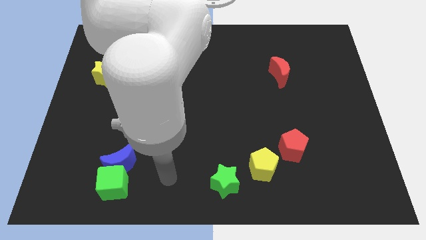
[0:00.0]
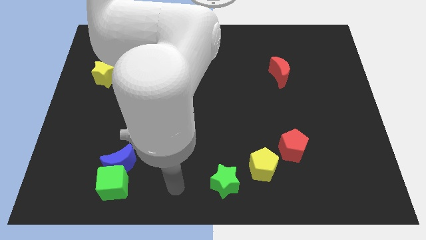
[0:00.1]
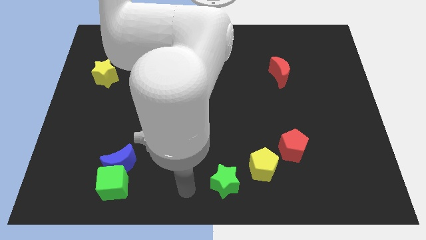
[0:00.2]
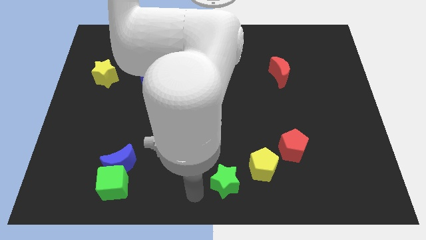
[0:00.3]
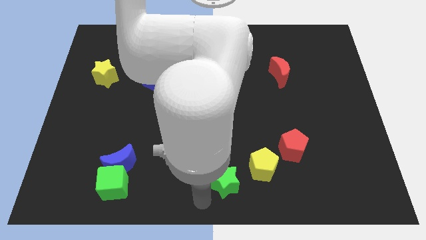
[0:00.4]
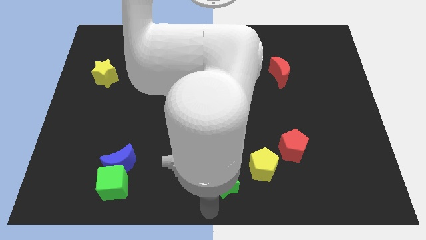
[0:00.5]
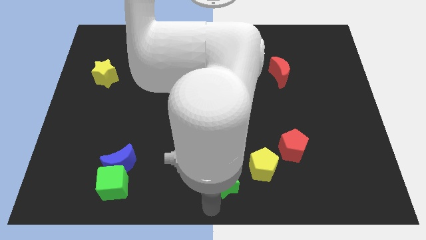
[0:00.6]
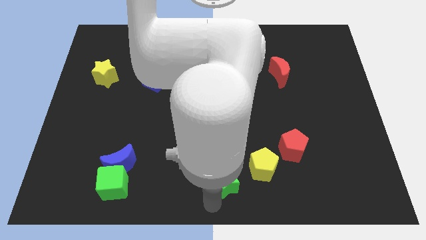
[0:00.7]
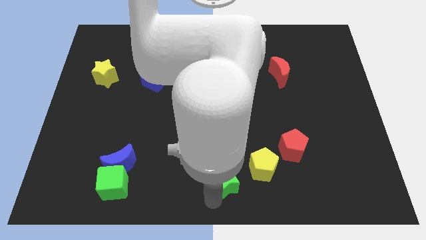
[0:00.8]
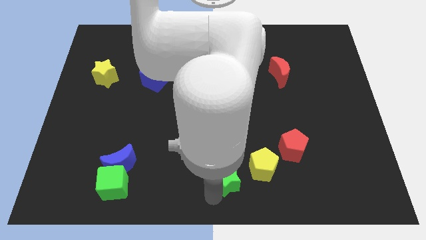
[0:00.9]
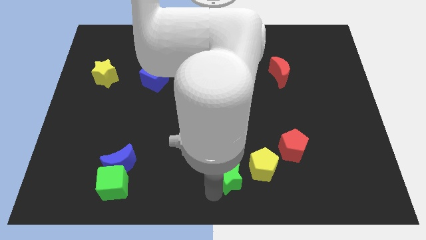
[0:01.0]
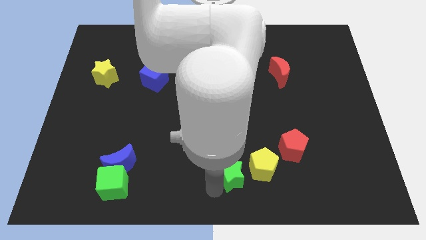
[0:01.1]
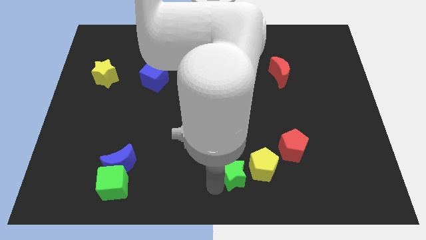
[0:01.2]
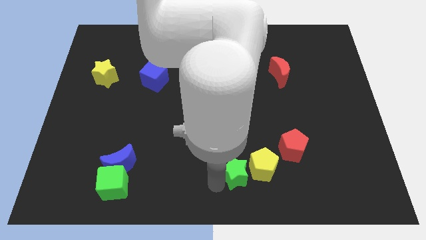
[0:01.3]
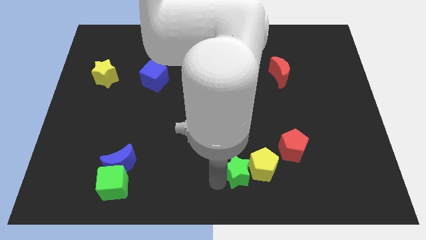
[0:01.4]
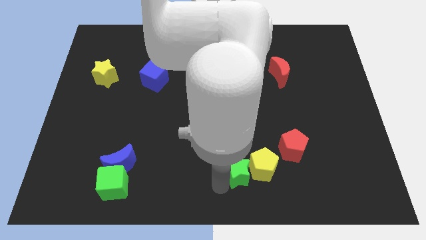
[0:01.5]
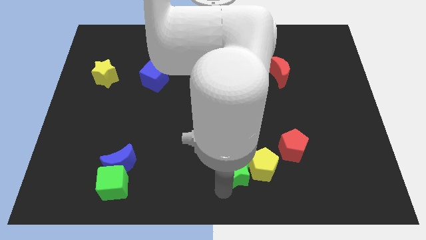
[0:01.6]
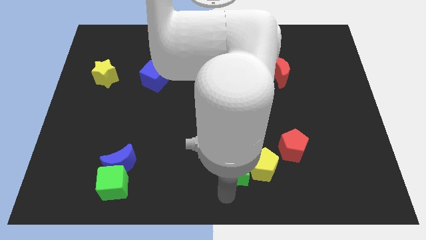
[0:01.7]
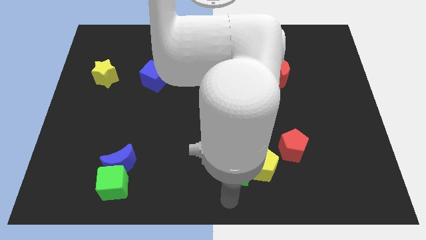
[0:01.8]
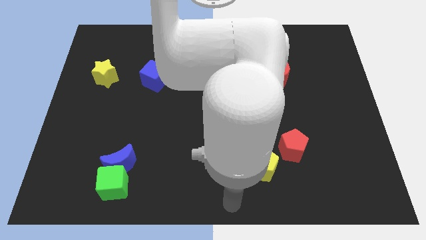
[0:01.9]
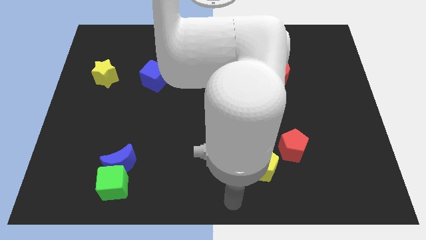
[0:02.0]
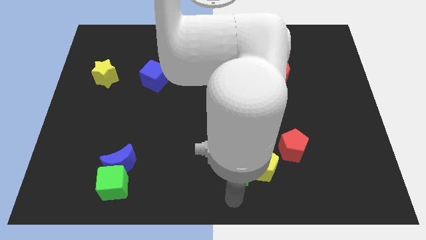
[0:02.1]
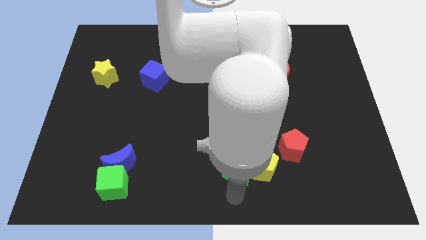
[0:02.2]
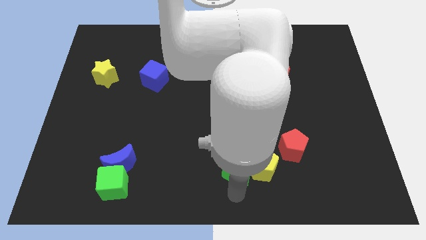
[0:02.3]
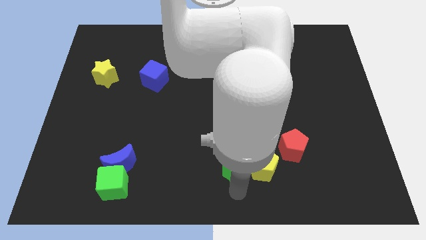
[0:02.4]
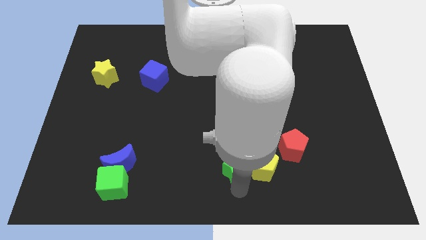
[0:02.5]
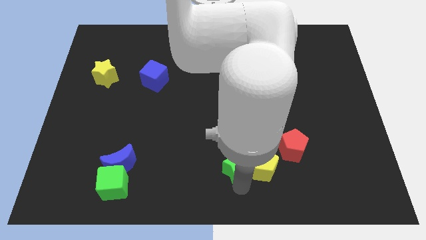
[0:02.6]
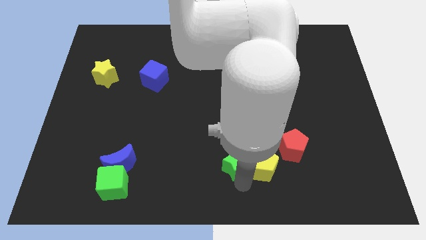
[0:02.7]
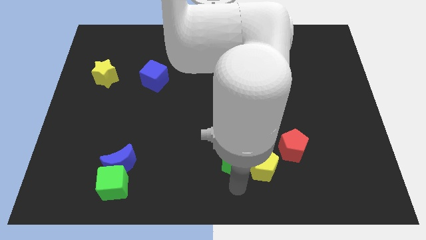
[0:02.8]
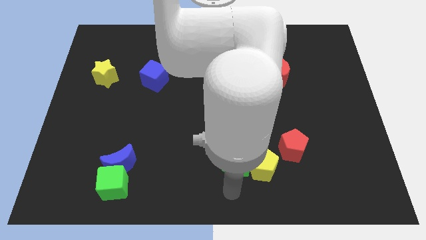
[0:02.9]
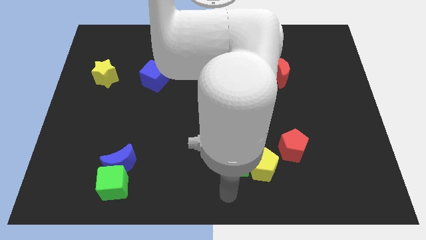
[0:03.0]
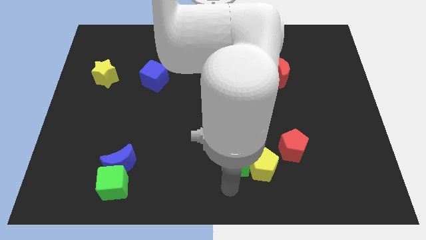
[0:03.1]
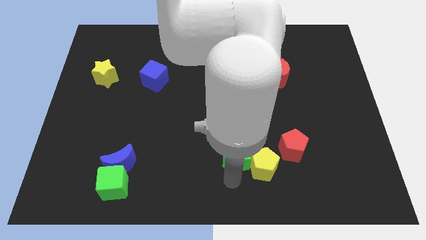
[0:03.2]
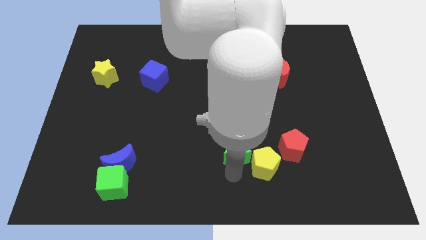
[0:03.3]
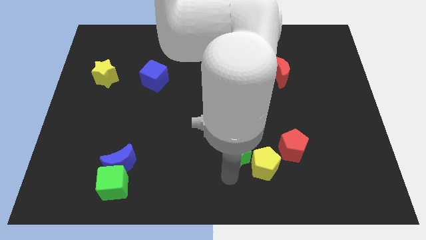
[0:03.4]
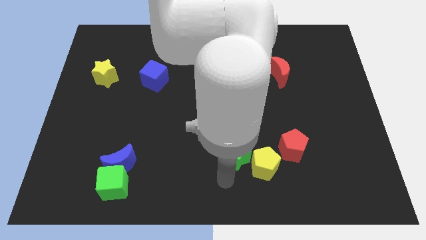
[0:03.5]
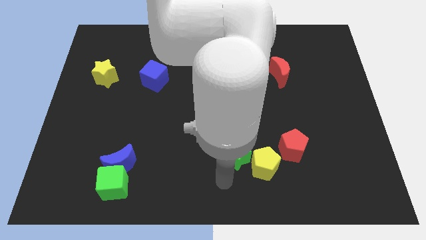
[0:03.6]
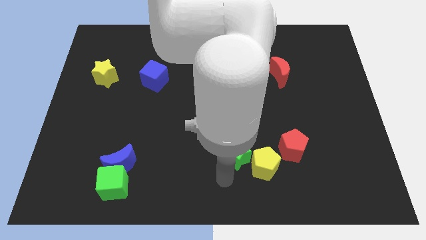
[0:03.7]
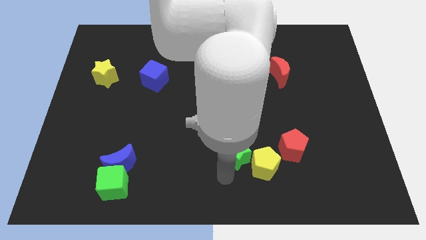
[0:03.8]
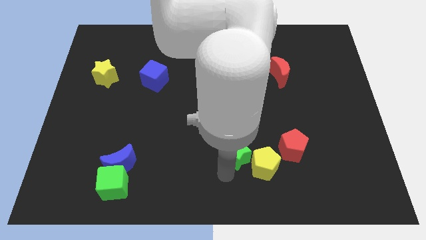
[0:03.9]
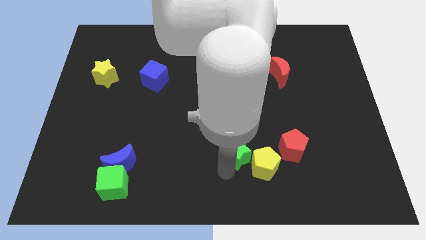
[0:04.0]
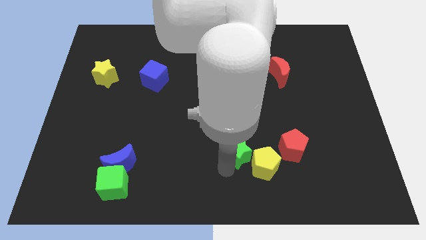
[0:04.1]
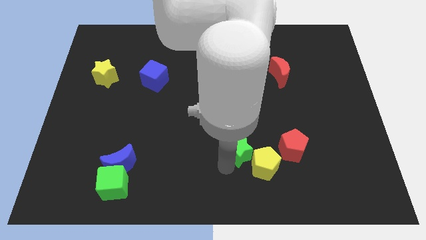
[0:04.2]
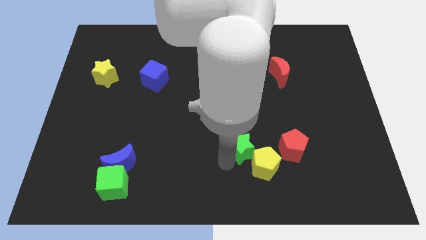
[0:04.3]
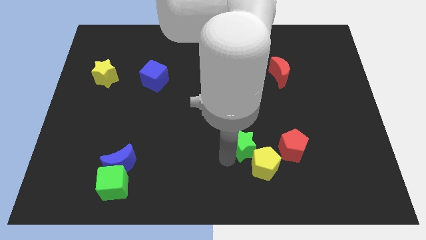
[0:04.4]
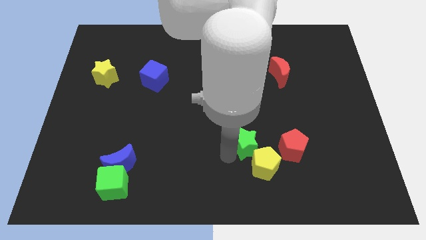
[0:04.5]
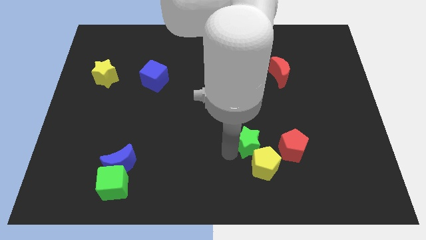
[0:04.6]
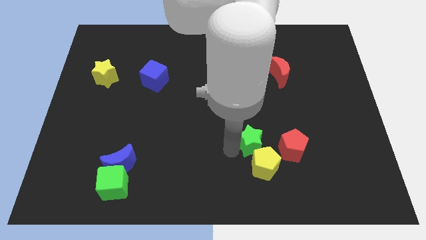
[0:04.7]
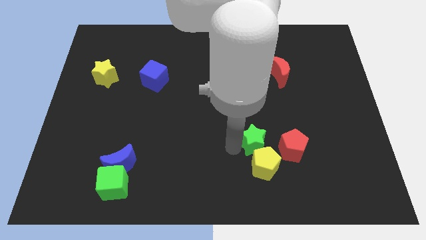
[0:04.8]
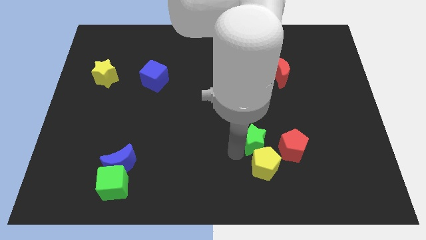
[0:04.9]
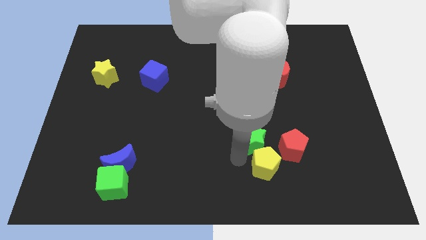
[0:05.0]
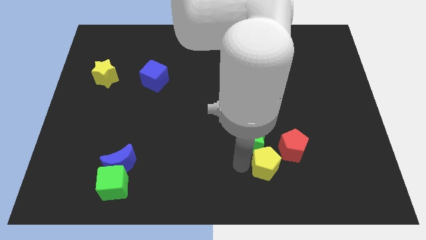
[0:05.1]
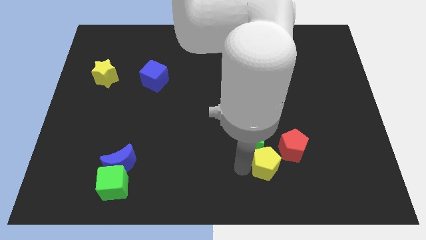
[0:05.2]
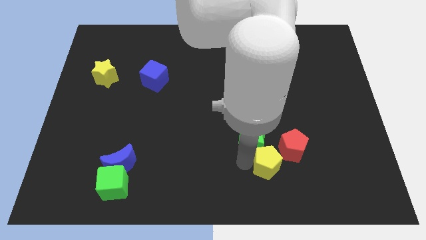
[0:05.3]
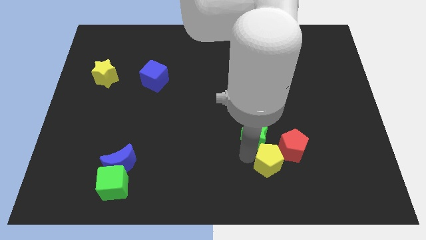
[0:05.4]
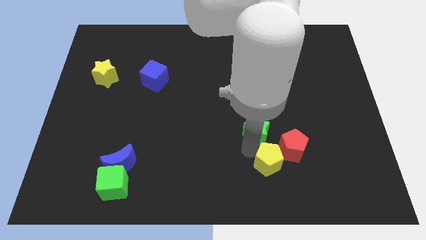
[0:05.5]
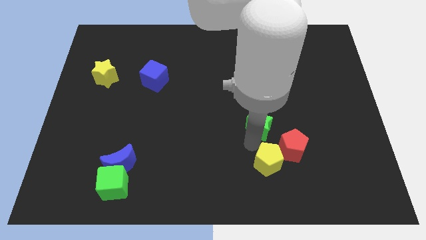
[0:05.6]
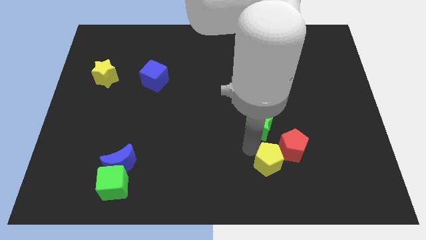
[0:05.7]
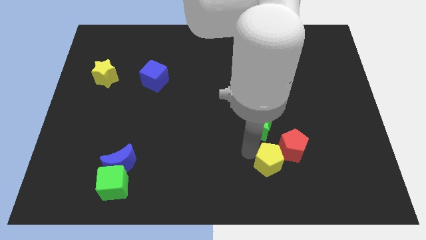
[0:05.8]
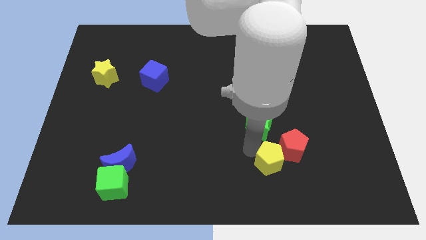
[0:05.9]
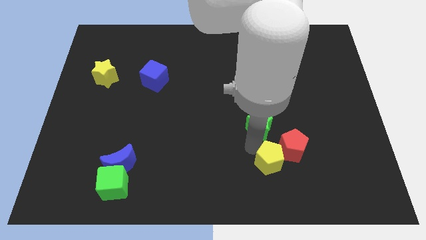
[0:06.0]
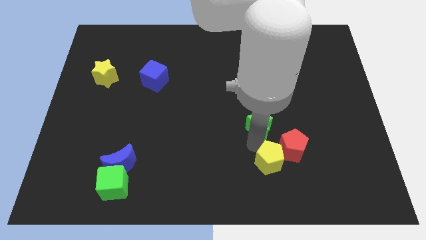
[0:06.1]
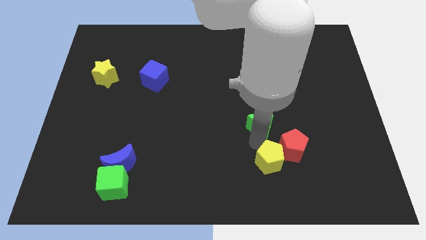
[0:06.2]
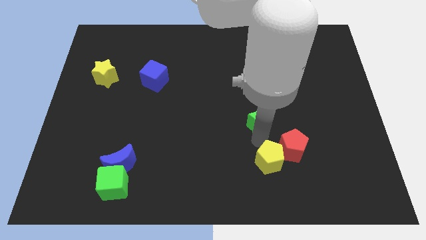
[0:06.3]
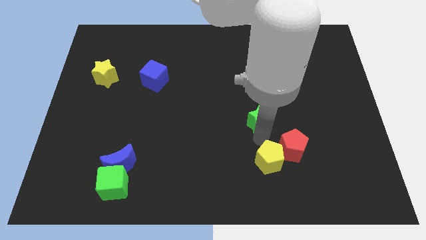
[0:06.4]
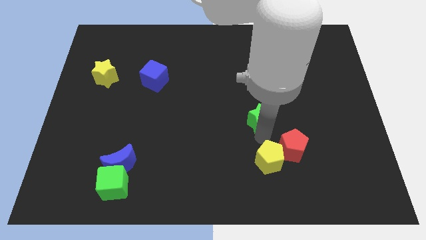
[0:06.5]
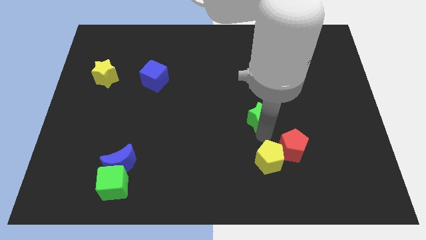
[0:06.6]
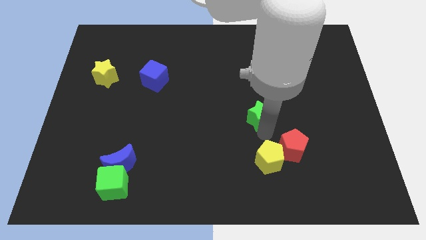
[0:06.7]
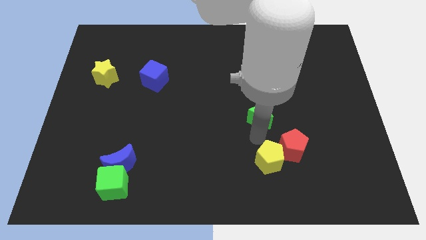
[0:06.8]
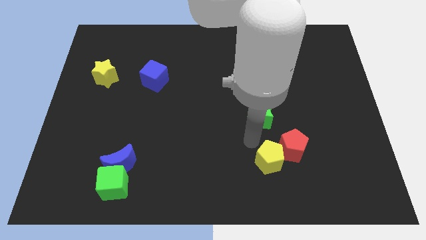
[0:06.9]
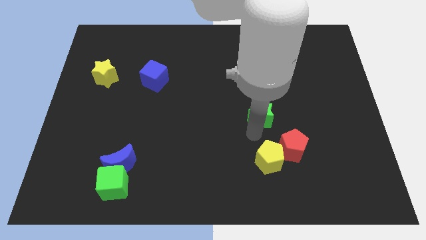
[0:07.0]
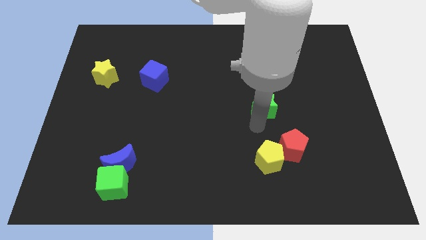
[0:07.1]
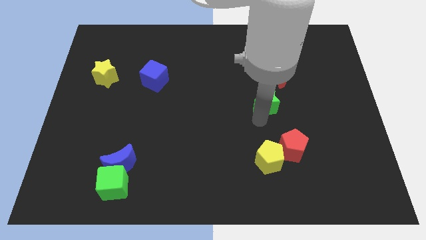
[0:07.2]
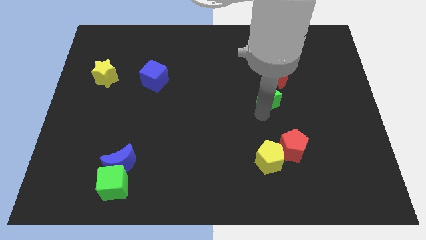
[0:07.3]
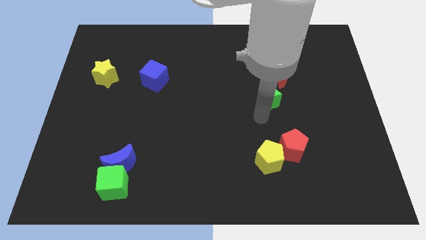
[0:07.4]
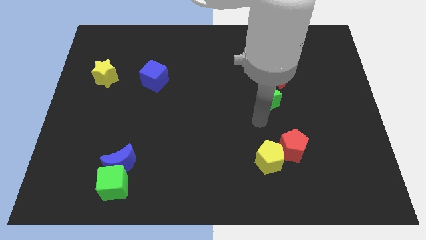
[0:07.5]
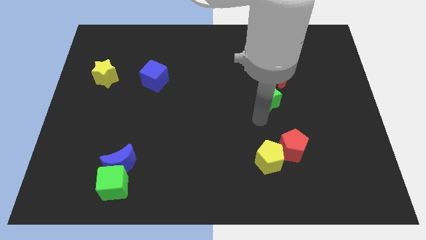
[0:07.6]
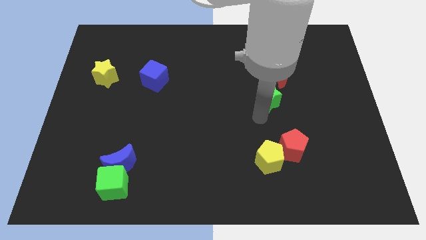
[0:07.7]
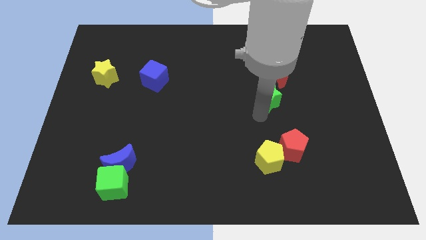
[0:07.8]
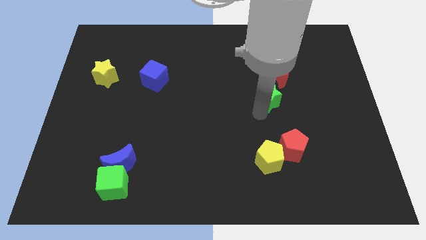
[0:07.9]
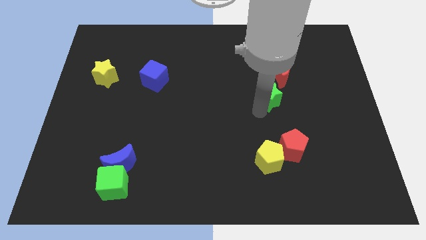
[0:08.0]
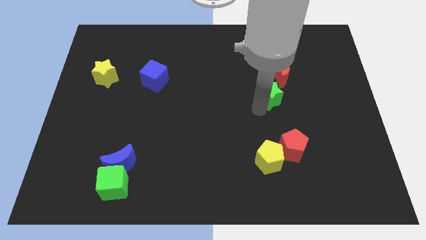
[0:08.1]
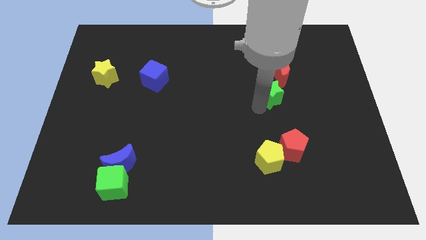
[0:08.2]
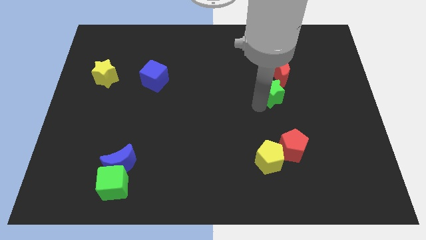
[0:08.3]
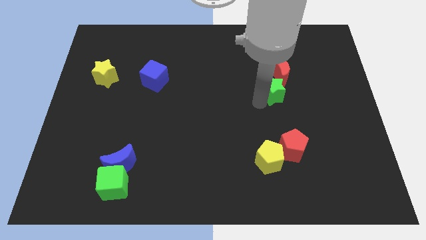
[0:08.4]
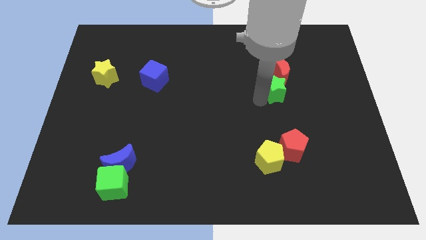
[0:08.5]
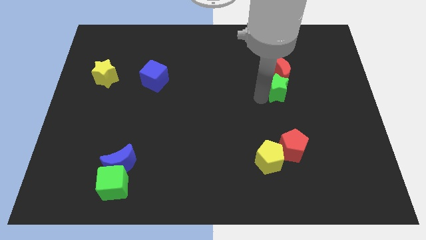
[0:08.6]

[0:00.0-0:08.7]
slide the green star next to the red moon
